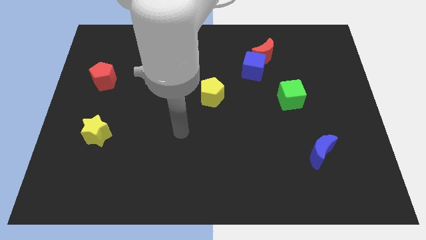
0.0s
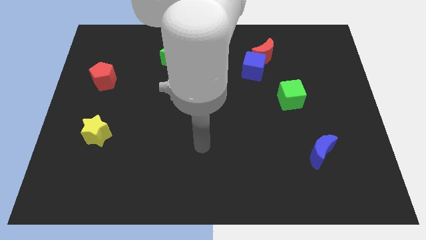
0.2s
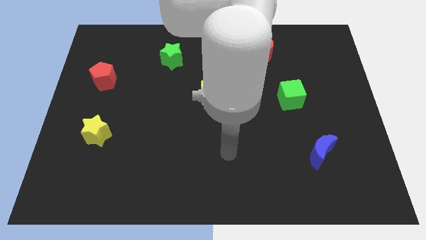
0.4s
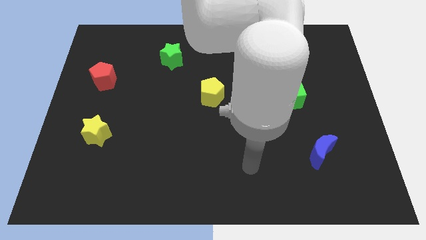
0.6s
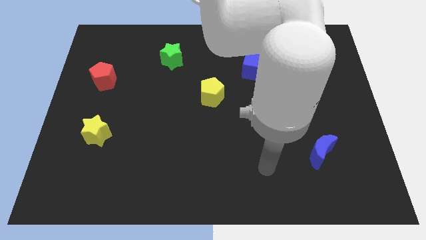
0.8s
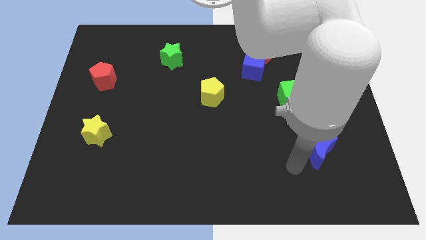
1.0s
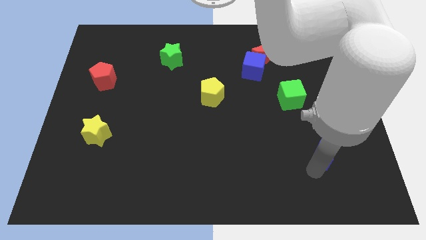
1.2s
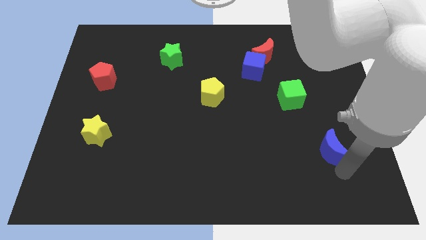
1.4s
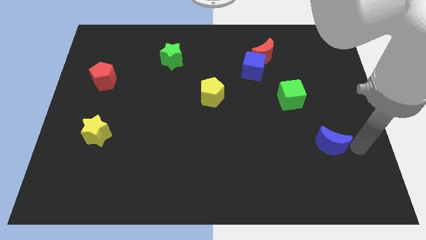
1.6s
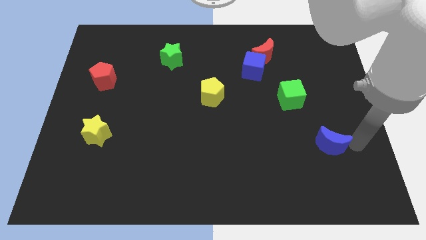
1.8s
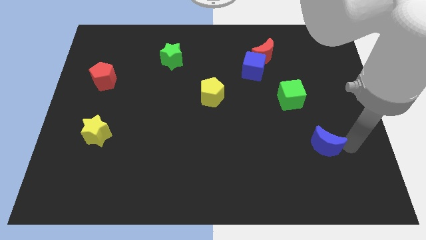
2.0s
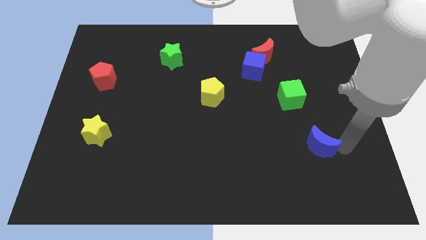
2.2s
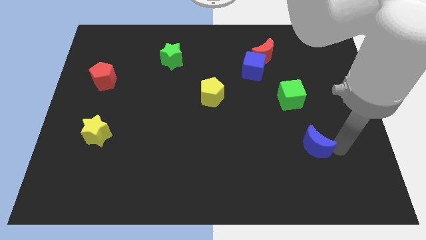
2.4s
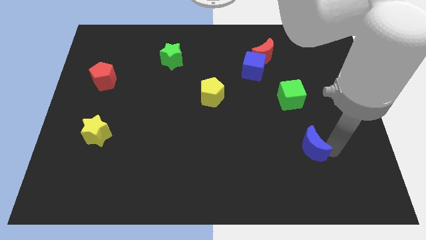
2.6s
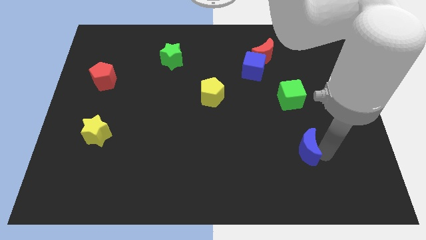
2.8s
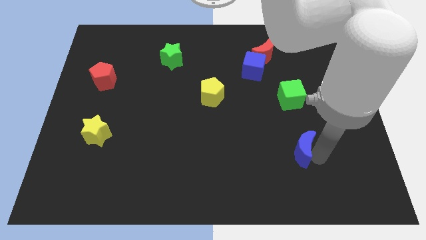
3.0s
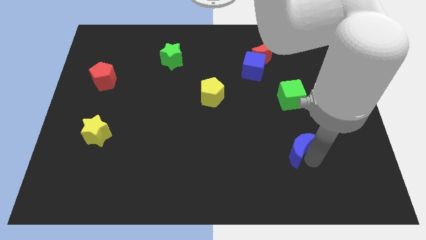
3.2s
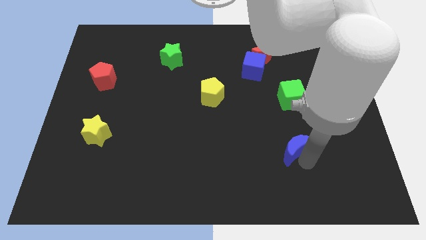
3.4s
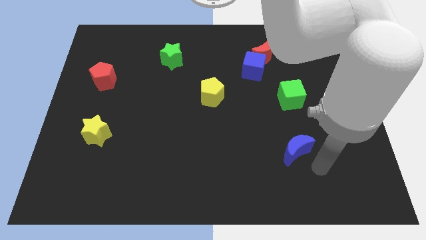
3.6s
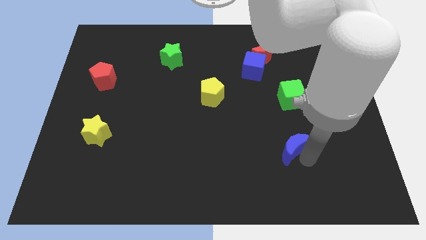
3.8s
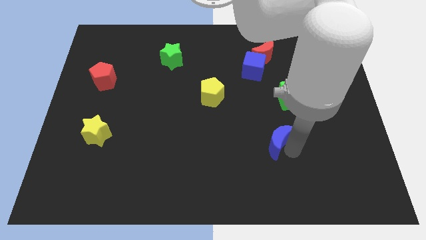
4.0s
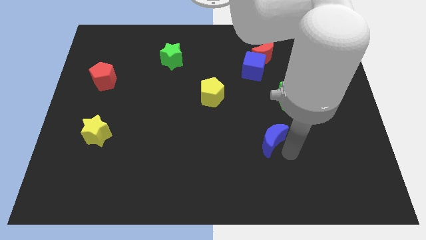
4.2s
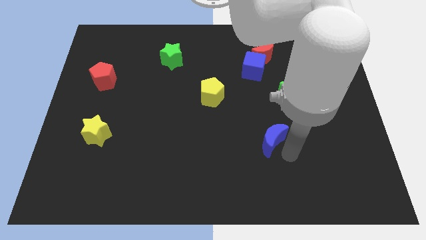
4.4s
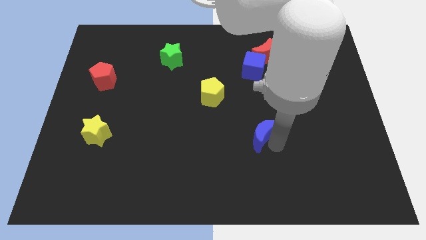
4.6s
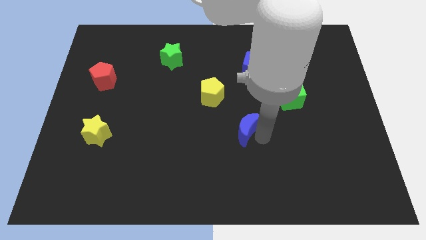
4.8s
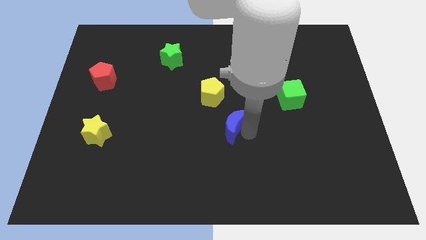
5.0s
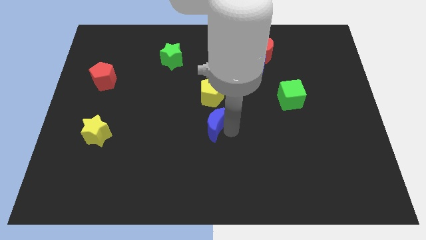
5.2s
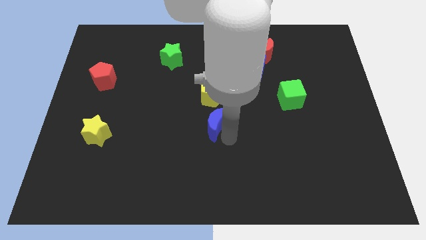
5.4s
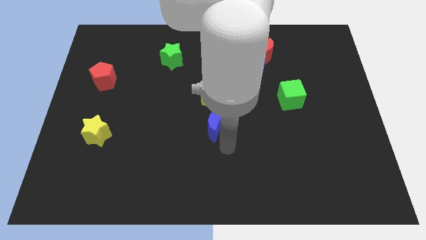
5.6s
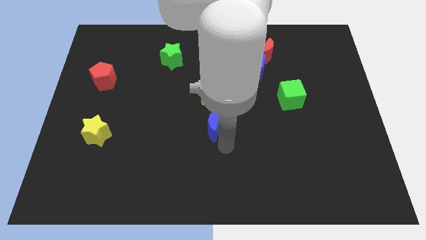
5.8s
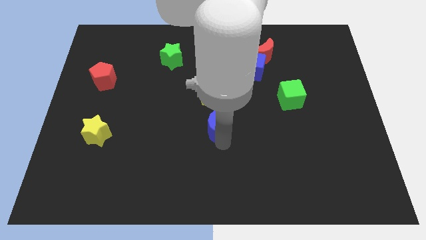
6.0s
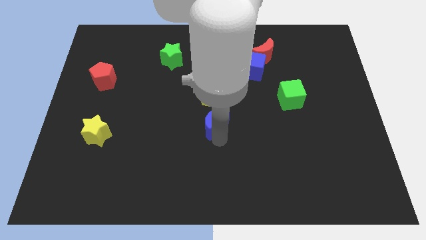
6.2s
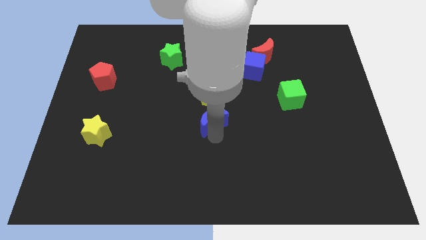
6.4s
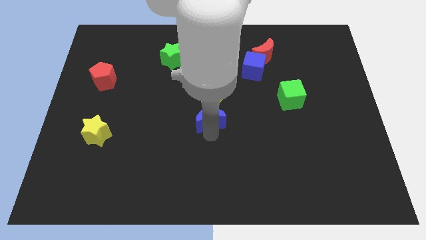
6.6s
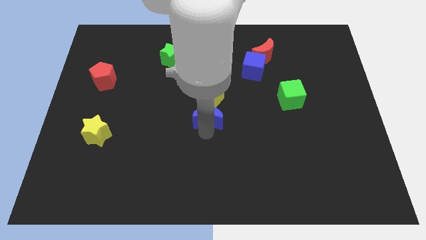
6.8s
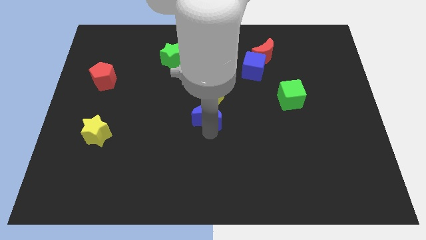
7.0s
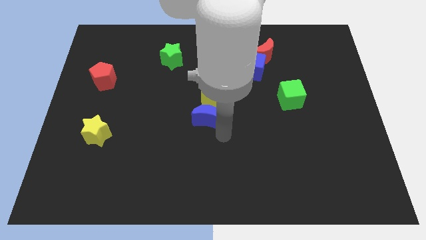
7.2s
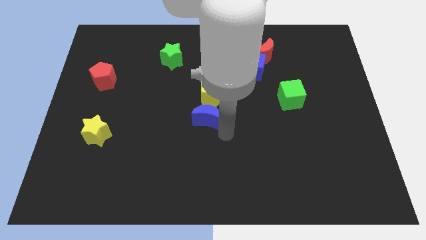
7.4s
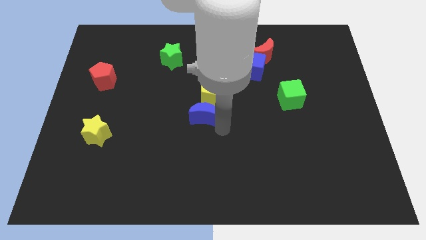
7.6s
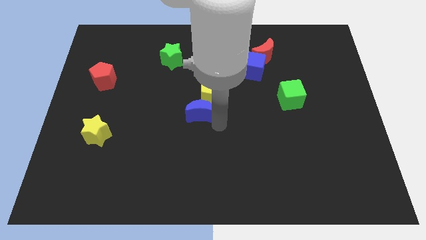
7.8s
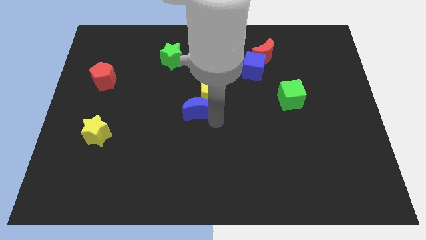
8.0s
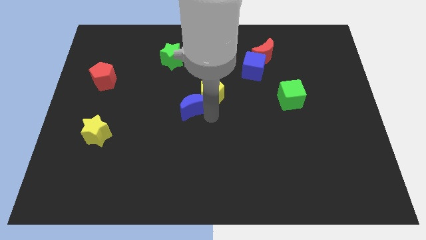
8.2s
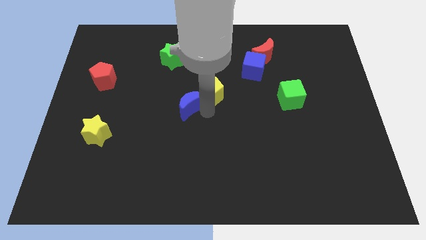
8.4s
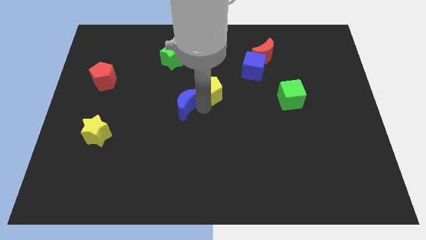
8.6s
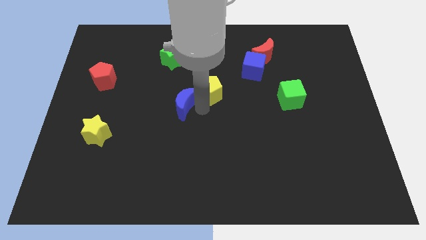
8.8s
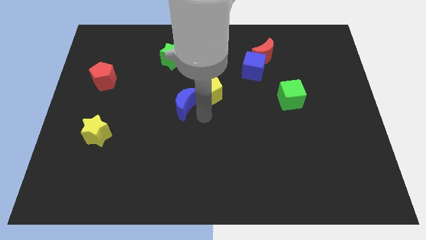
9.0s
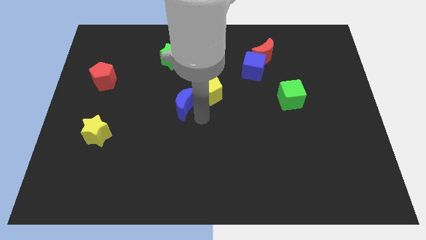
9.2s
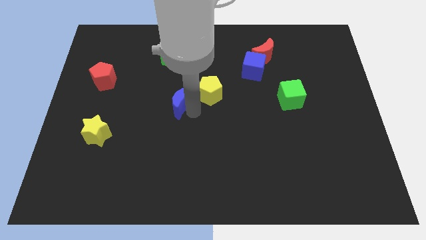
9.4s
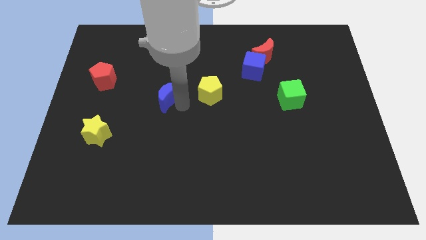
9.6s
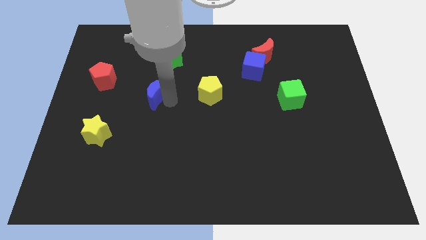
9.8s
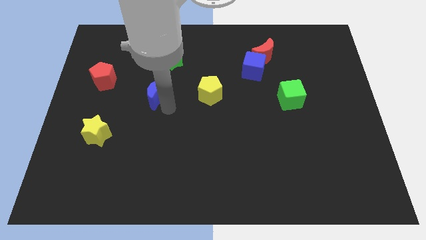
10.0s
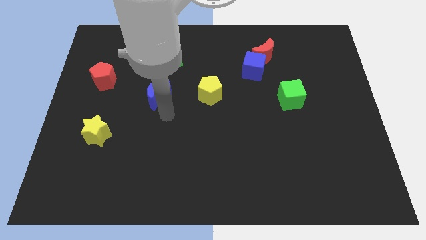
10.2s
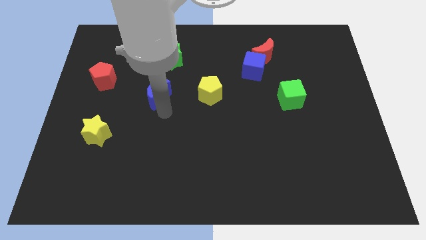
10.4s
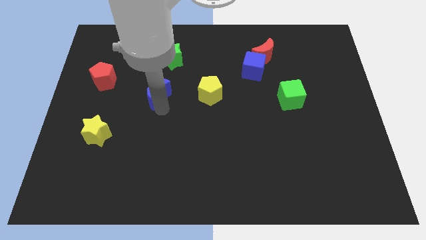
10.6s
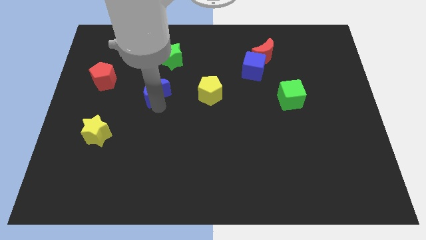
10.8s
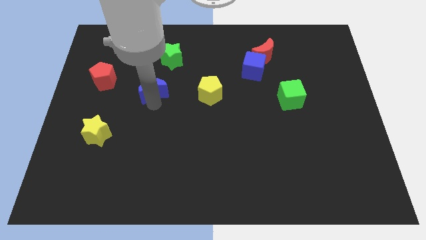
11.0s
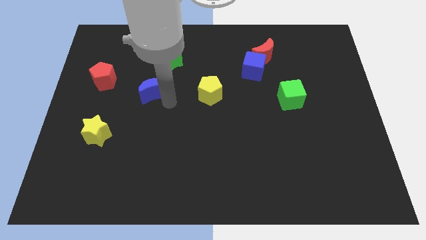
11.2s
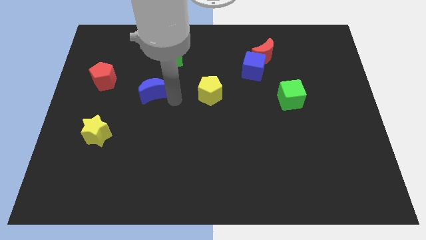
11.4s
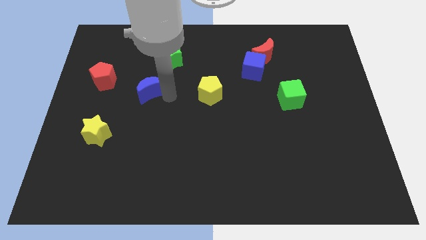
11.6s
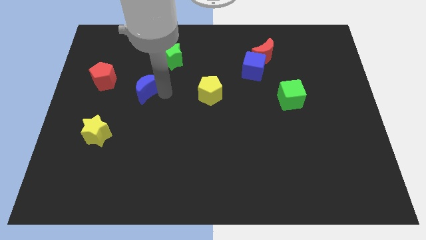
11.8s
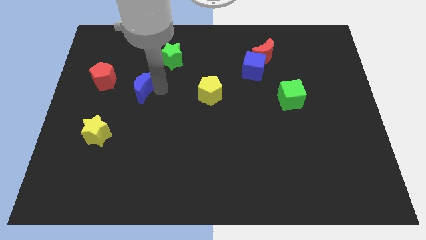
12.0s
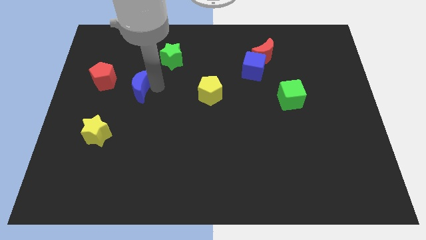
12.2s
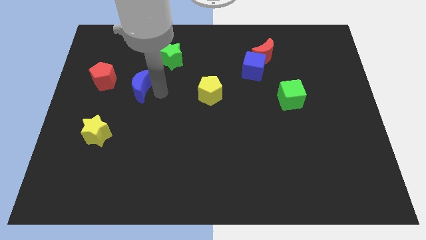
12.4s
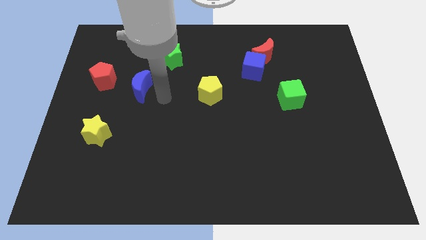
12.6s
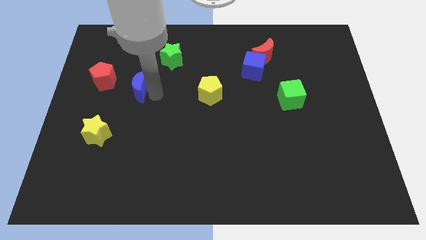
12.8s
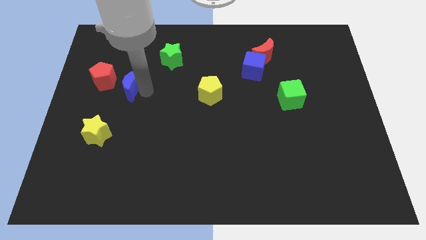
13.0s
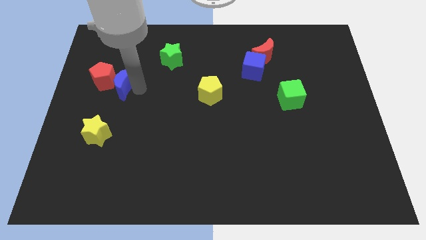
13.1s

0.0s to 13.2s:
slide the blue moon close to the red pentagon

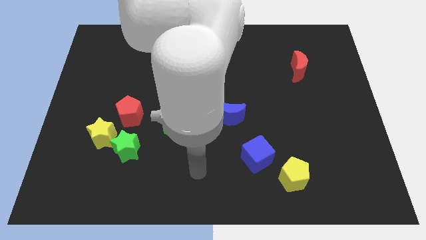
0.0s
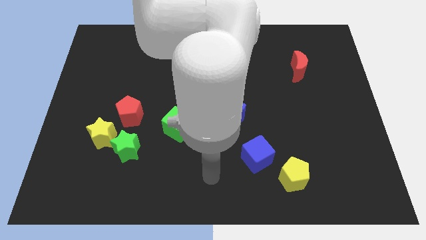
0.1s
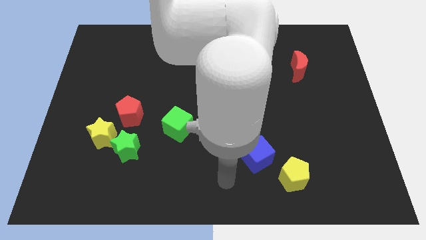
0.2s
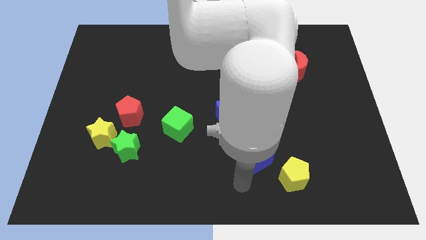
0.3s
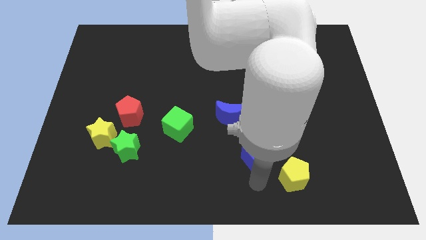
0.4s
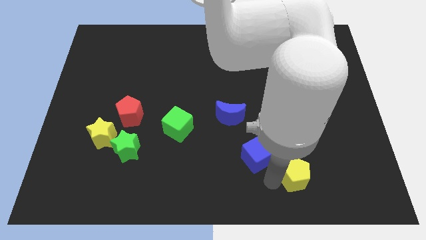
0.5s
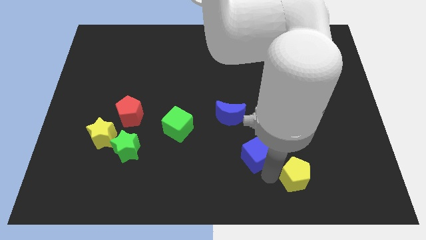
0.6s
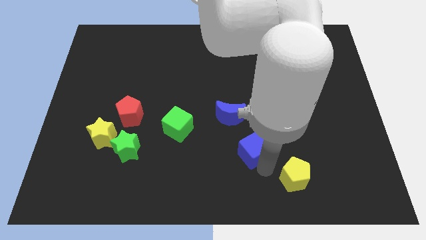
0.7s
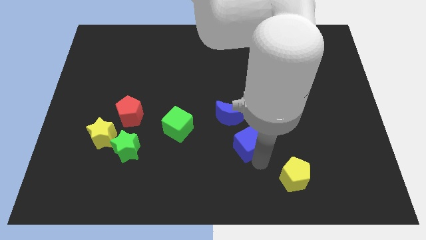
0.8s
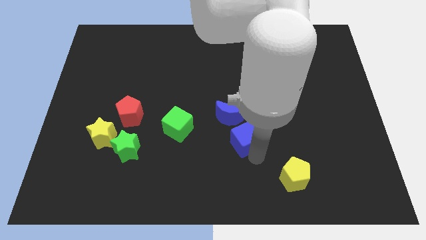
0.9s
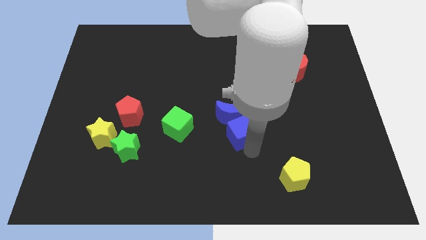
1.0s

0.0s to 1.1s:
push the blue cube next to the blue moon
